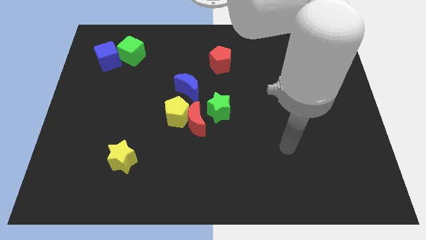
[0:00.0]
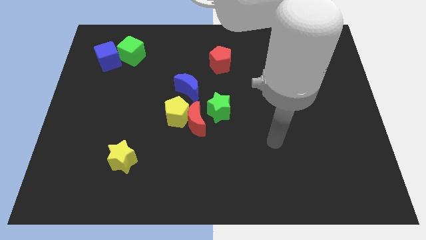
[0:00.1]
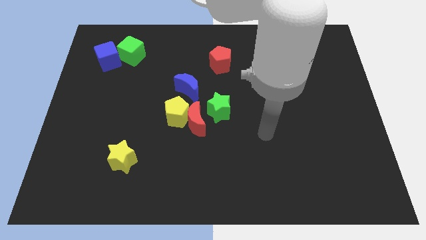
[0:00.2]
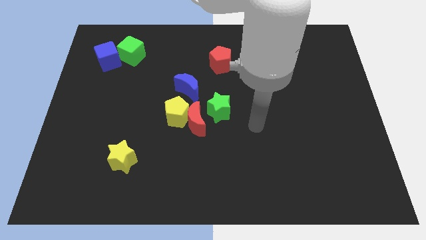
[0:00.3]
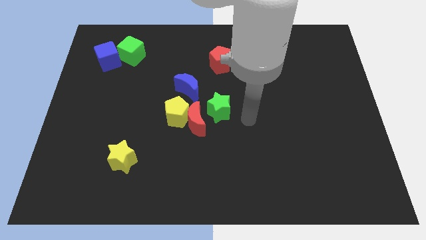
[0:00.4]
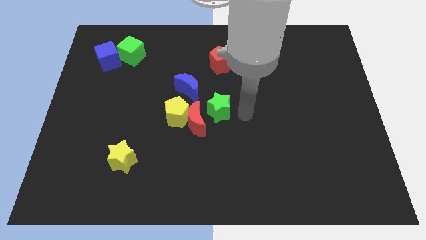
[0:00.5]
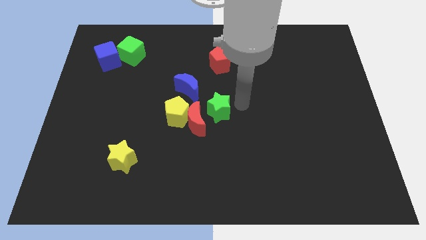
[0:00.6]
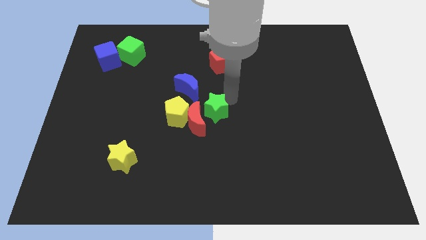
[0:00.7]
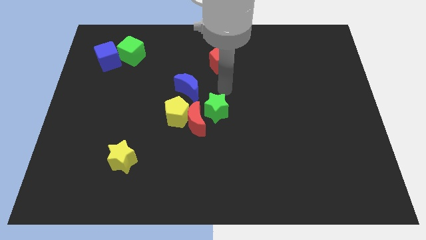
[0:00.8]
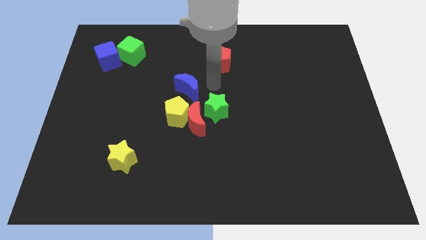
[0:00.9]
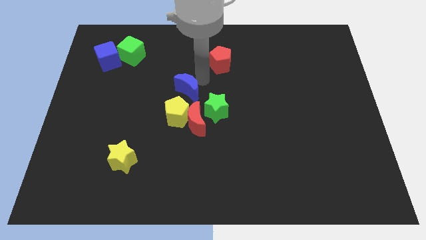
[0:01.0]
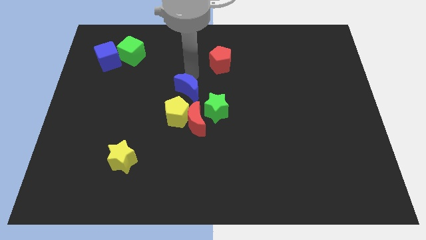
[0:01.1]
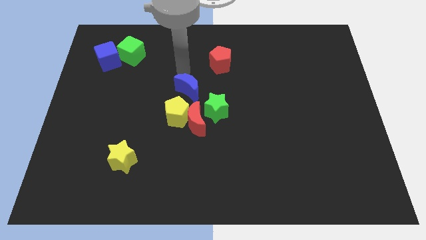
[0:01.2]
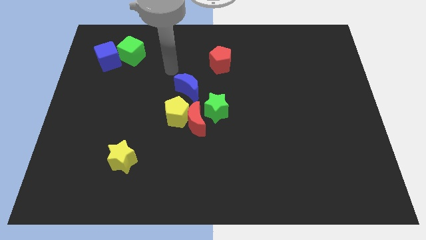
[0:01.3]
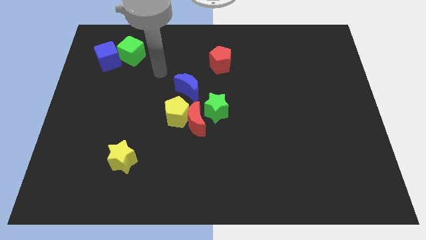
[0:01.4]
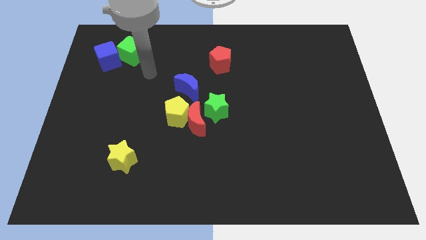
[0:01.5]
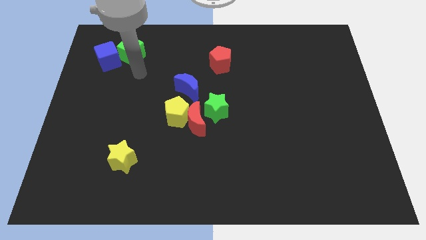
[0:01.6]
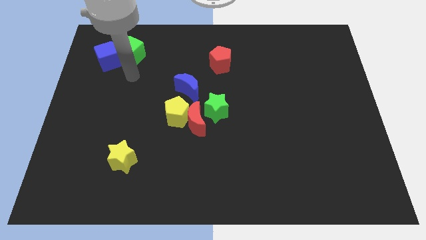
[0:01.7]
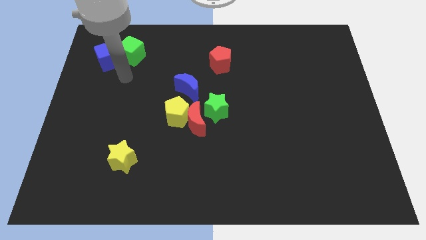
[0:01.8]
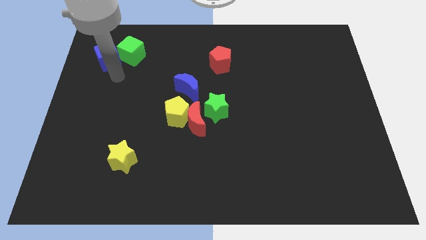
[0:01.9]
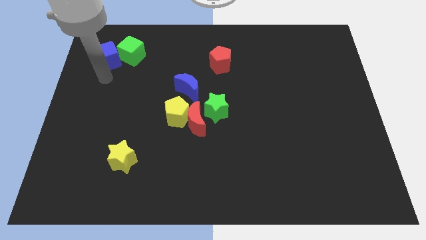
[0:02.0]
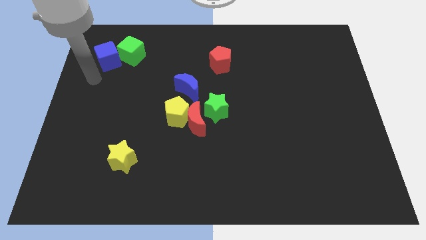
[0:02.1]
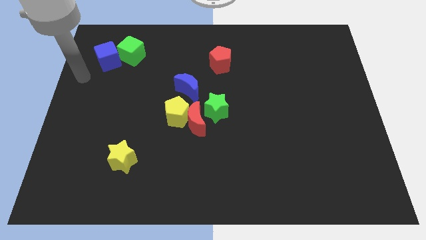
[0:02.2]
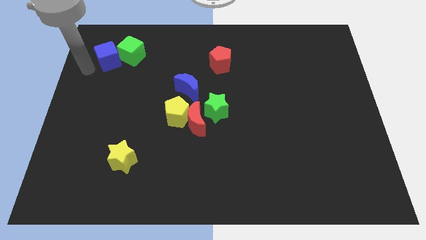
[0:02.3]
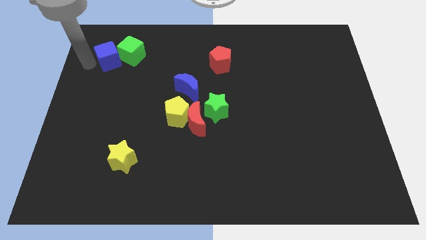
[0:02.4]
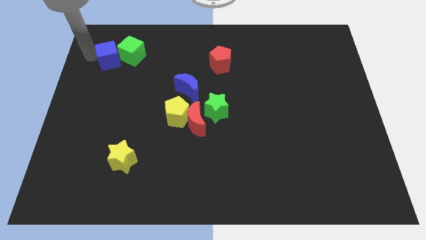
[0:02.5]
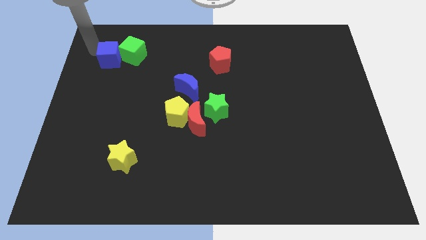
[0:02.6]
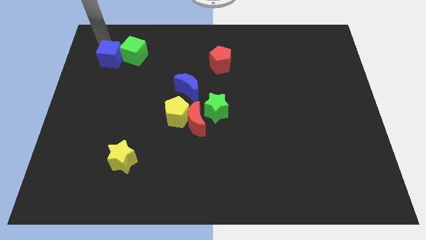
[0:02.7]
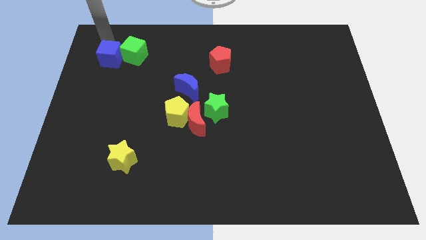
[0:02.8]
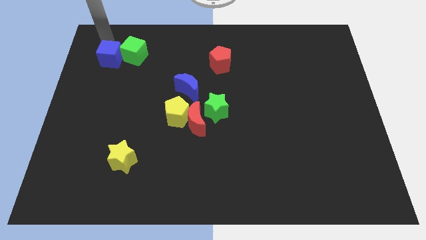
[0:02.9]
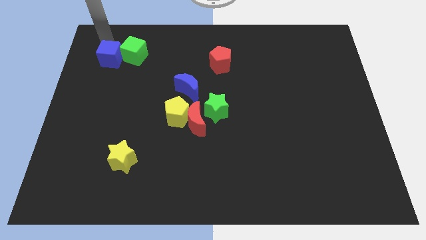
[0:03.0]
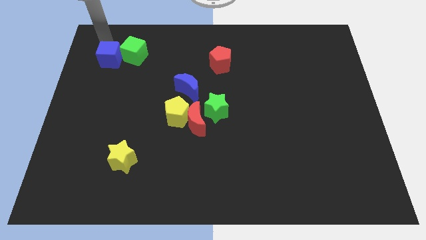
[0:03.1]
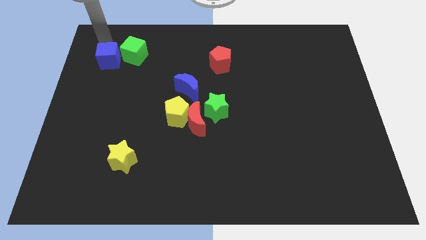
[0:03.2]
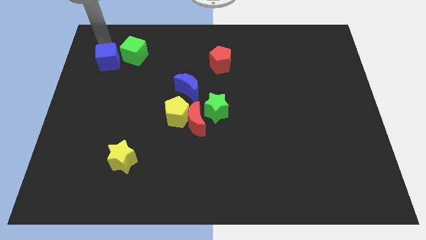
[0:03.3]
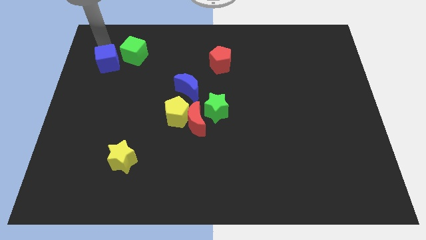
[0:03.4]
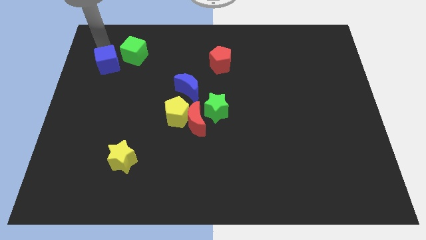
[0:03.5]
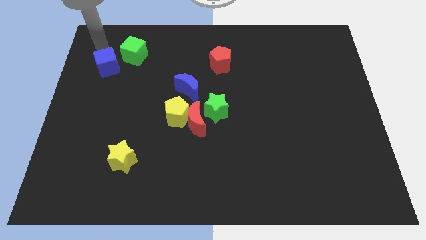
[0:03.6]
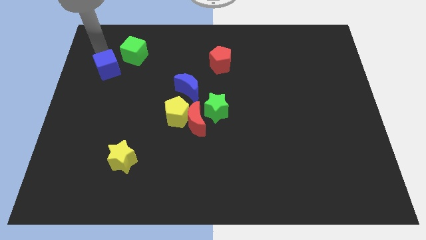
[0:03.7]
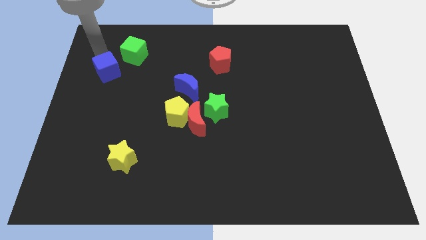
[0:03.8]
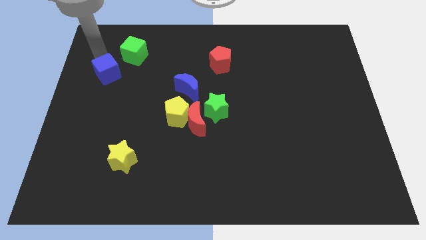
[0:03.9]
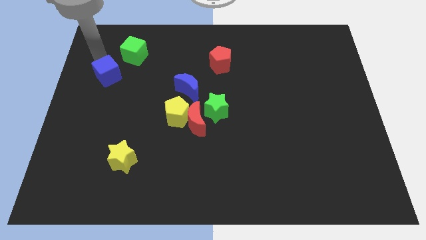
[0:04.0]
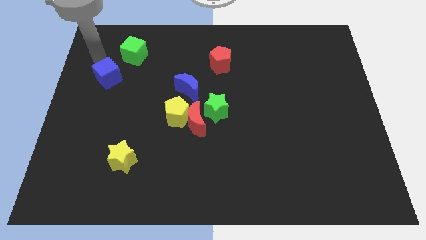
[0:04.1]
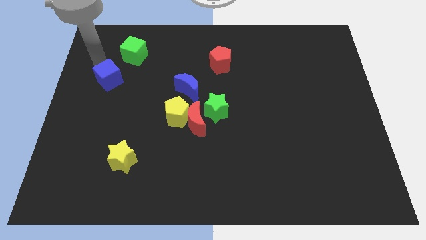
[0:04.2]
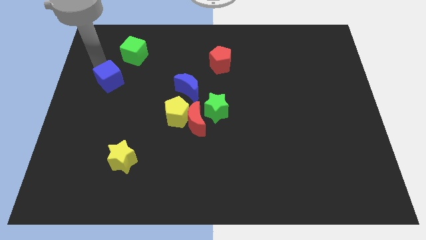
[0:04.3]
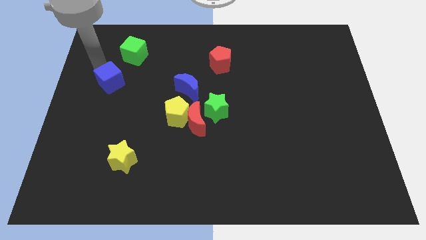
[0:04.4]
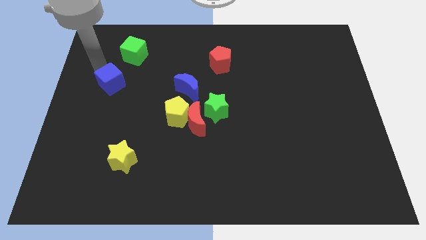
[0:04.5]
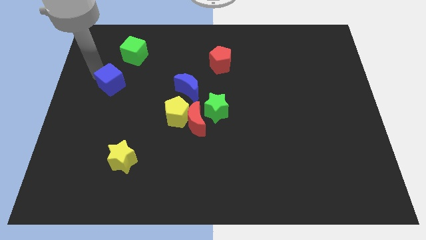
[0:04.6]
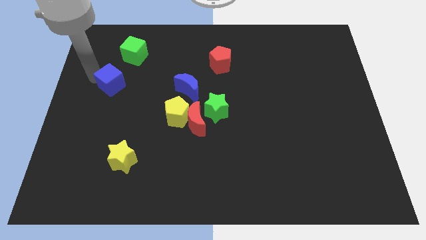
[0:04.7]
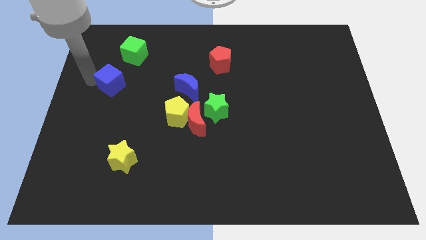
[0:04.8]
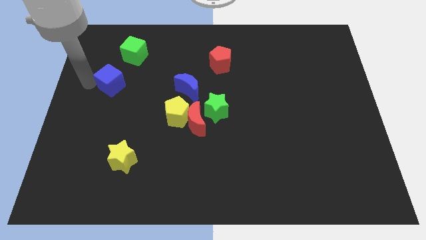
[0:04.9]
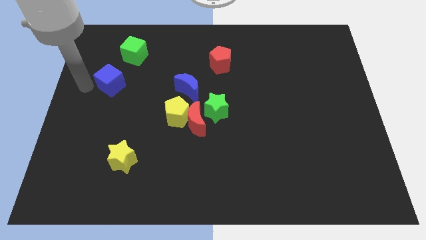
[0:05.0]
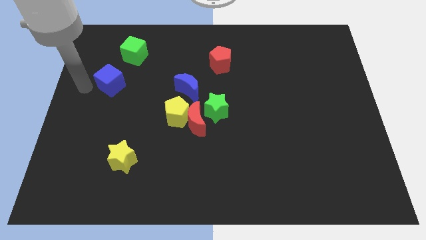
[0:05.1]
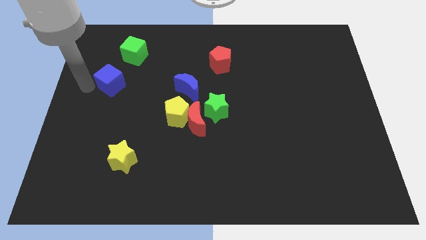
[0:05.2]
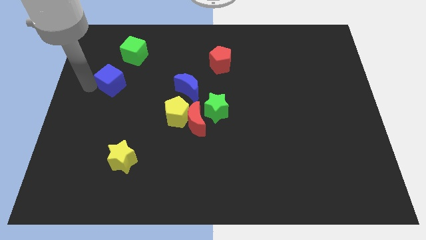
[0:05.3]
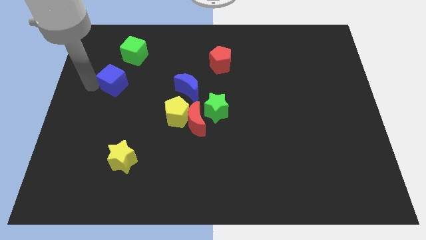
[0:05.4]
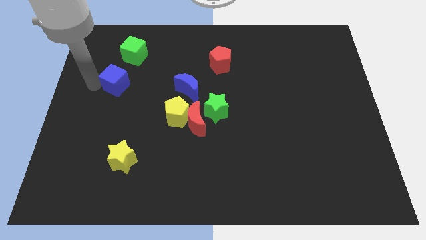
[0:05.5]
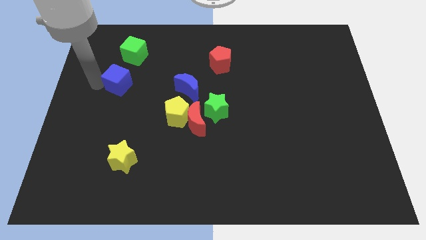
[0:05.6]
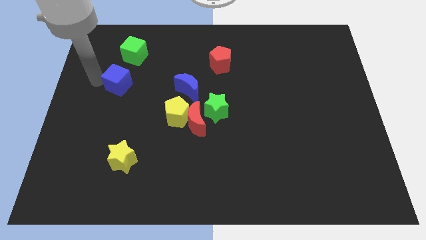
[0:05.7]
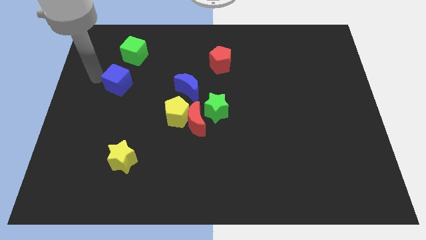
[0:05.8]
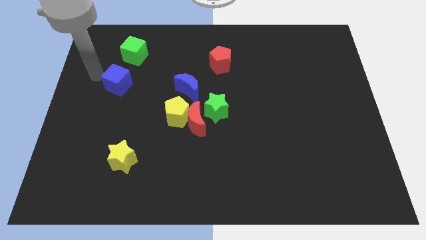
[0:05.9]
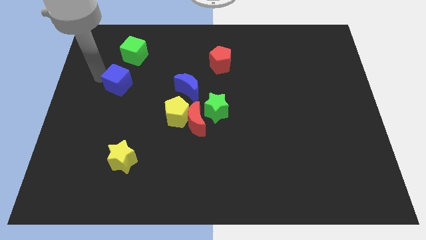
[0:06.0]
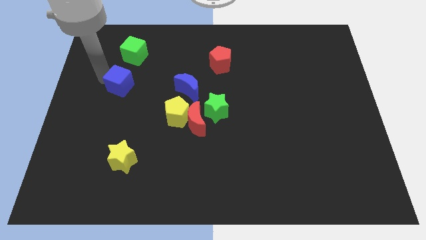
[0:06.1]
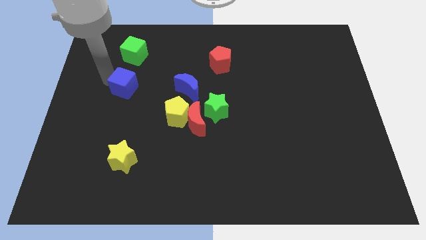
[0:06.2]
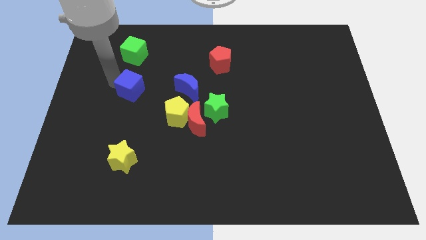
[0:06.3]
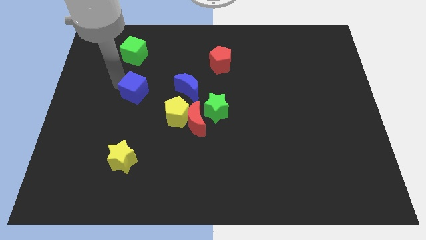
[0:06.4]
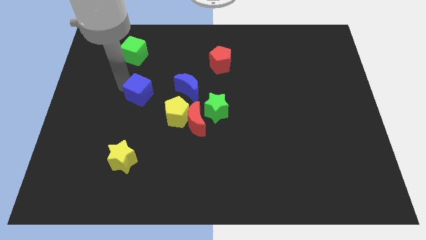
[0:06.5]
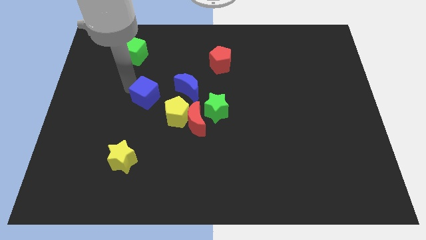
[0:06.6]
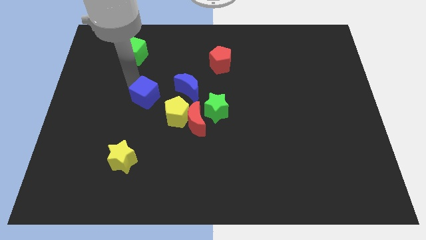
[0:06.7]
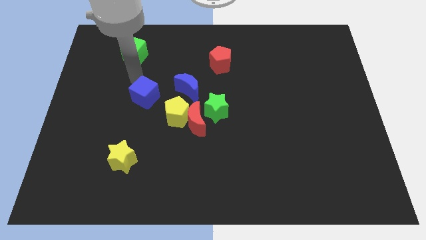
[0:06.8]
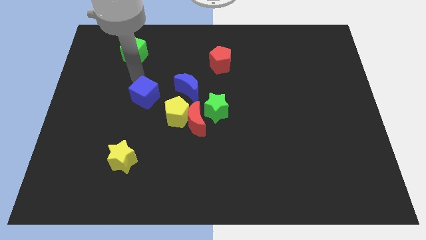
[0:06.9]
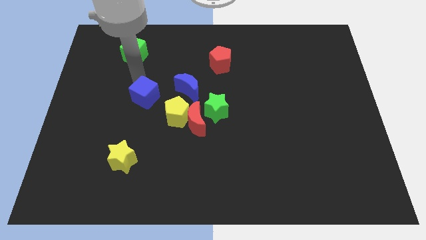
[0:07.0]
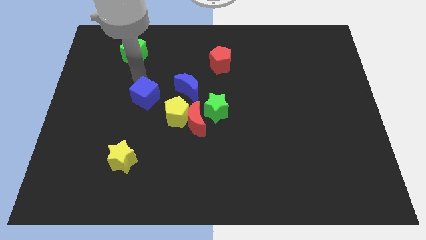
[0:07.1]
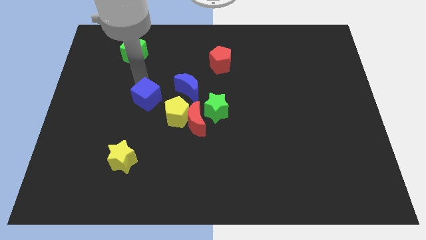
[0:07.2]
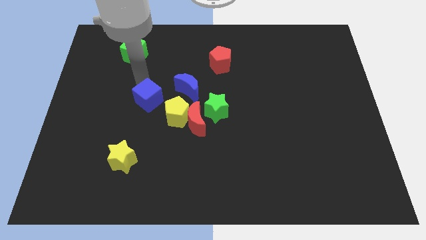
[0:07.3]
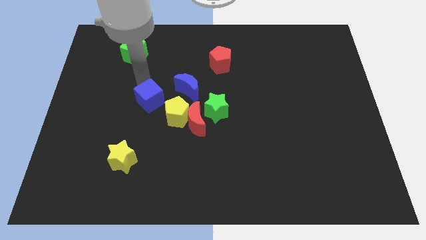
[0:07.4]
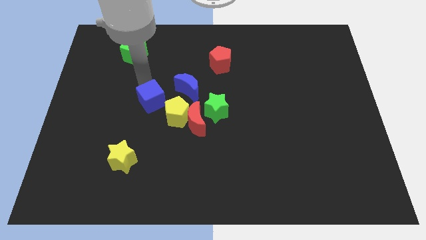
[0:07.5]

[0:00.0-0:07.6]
push the blue cube just left of the green star
